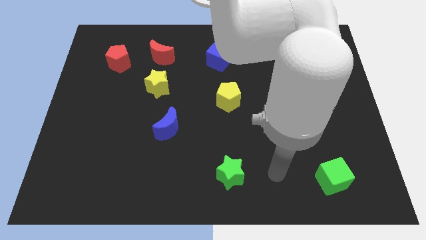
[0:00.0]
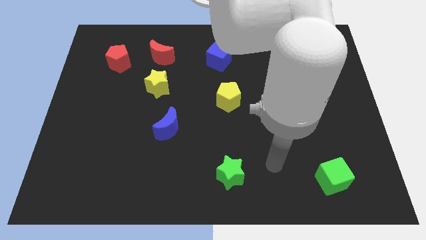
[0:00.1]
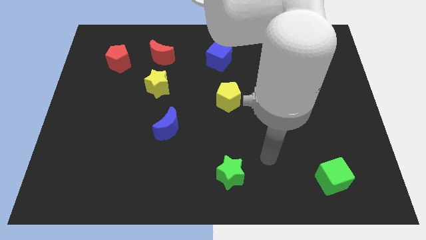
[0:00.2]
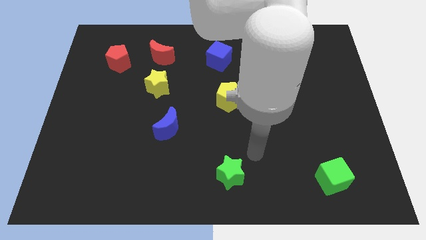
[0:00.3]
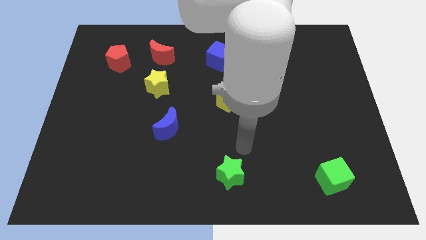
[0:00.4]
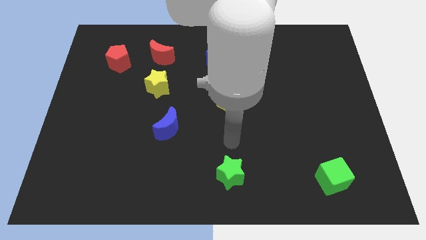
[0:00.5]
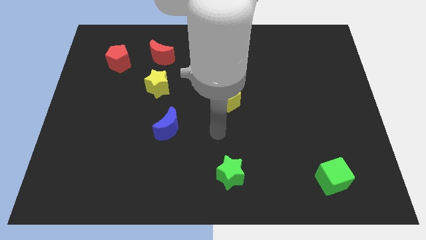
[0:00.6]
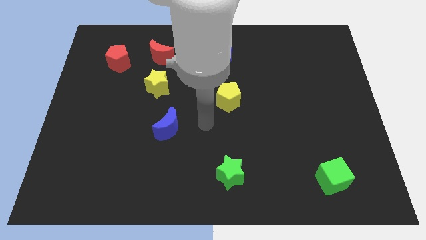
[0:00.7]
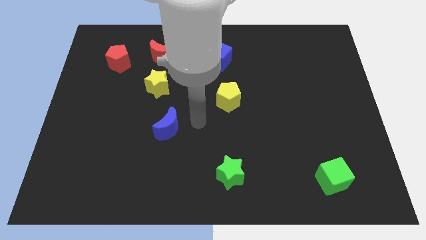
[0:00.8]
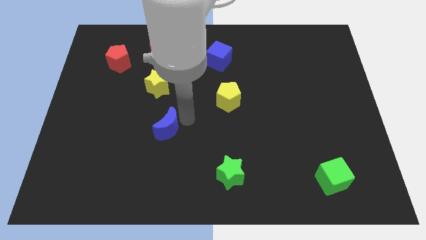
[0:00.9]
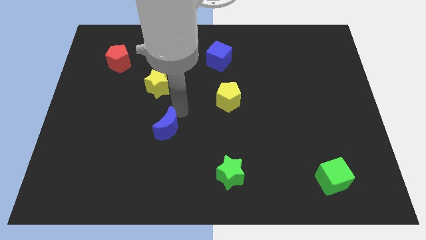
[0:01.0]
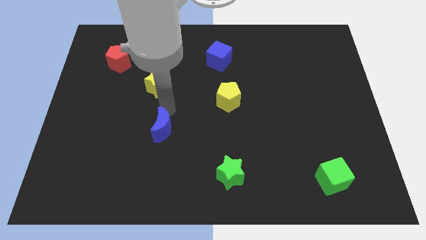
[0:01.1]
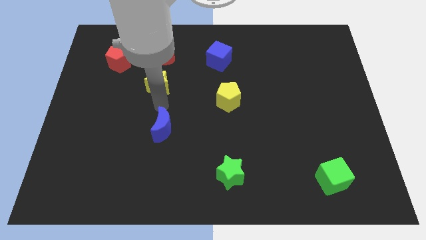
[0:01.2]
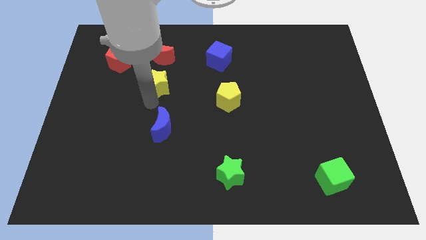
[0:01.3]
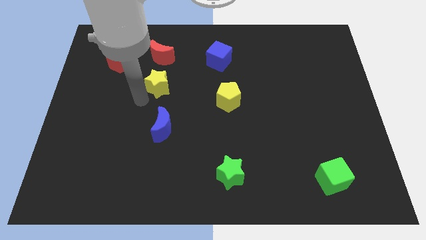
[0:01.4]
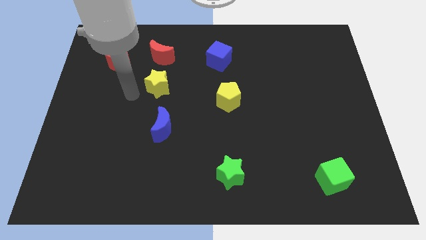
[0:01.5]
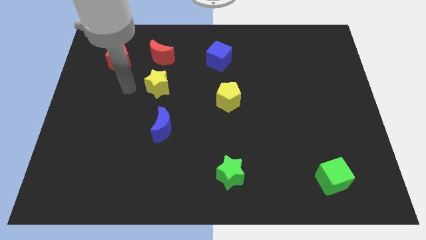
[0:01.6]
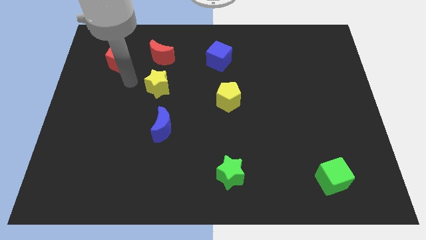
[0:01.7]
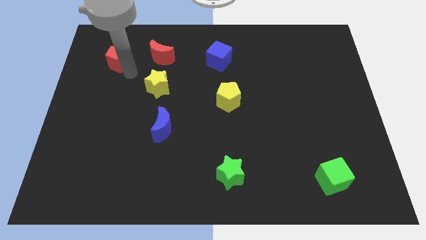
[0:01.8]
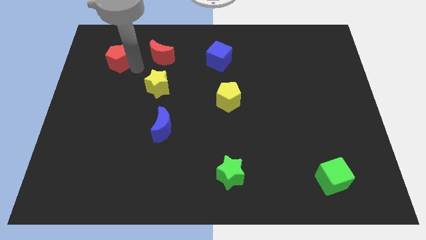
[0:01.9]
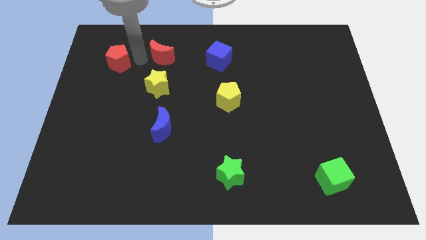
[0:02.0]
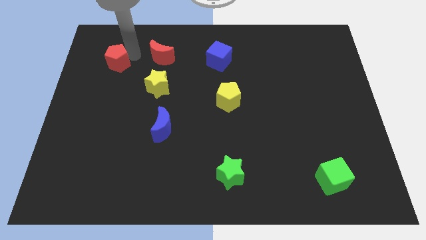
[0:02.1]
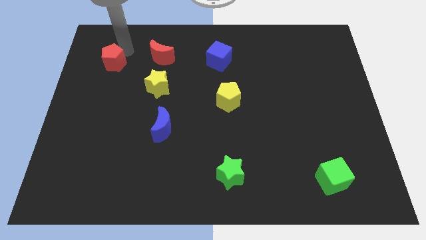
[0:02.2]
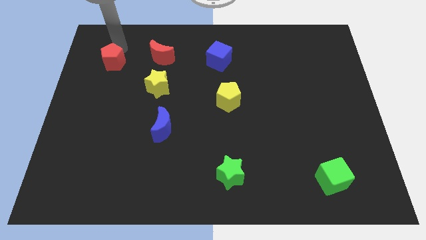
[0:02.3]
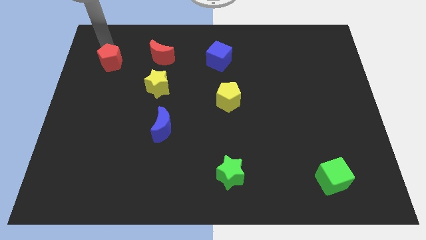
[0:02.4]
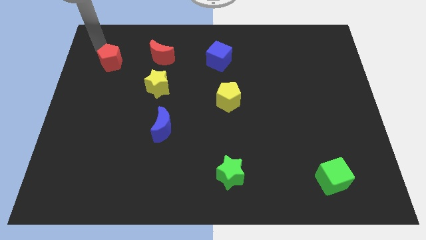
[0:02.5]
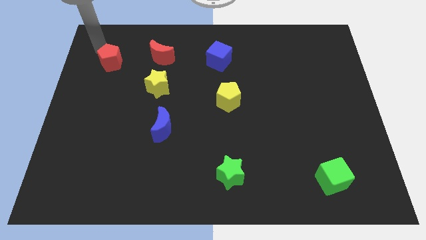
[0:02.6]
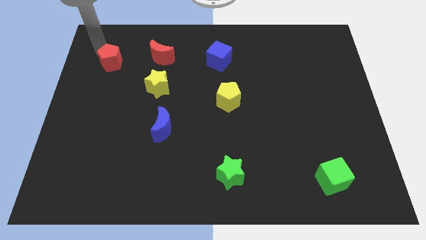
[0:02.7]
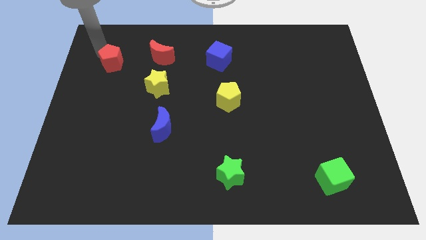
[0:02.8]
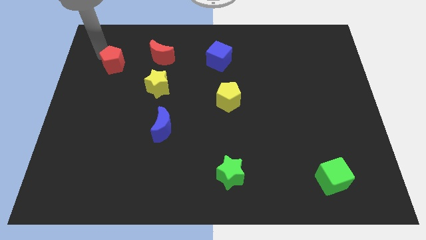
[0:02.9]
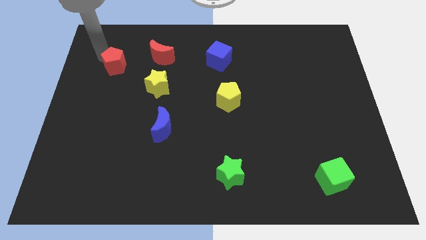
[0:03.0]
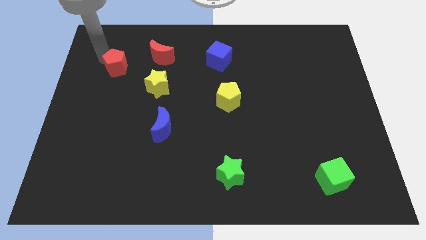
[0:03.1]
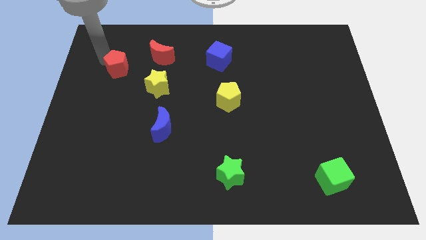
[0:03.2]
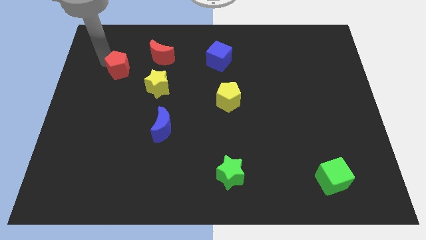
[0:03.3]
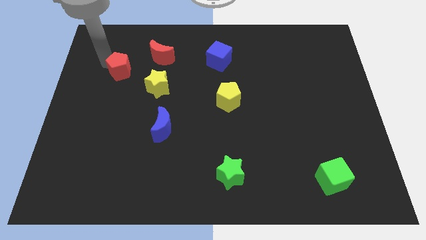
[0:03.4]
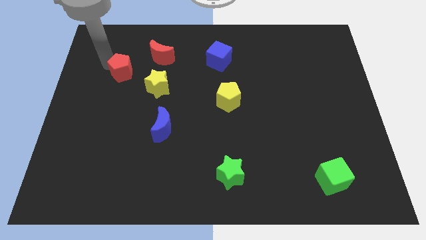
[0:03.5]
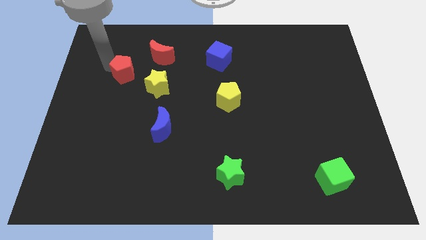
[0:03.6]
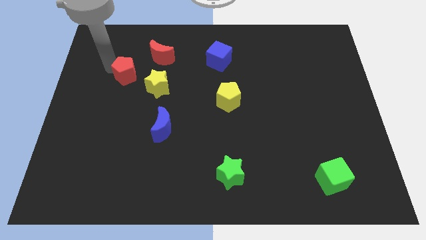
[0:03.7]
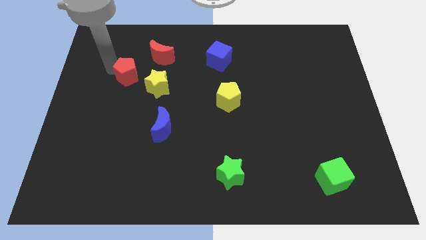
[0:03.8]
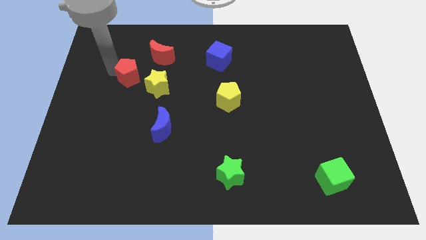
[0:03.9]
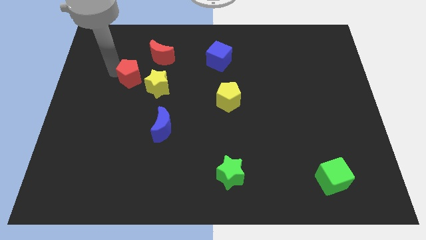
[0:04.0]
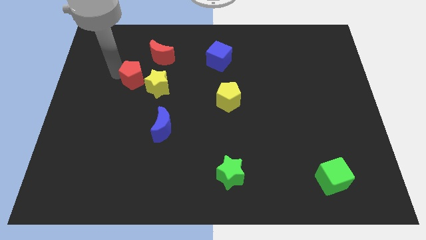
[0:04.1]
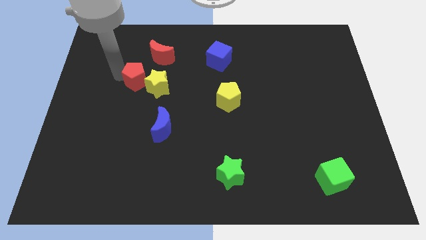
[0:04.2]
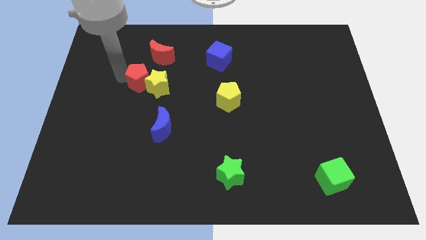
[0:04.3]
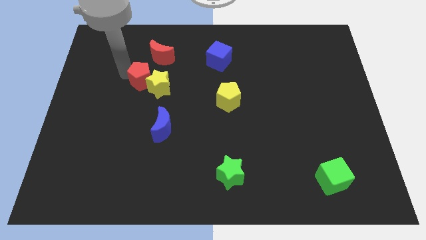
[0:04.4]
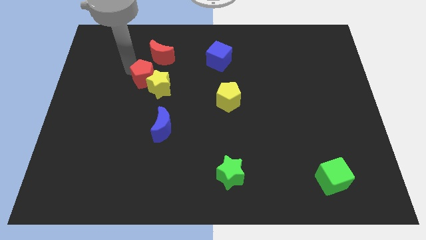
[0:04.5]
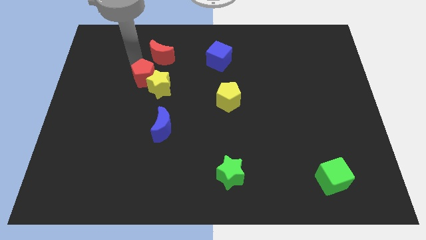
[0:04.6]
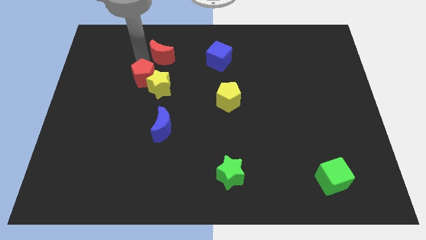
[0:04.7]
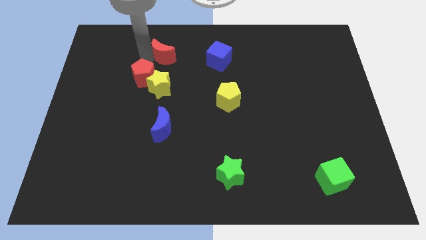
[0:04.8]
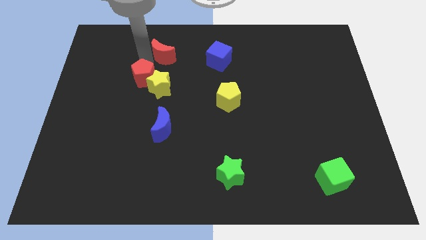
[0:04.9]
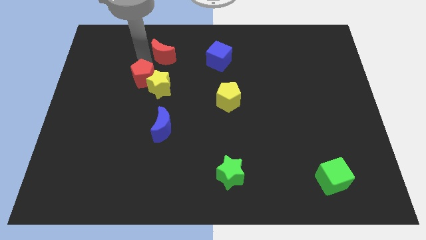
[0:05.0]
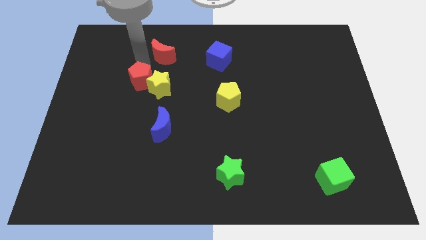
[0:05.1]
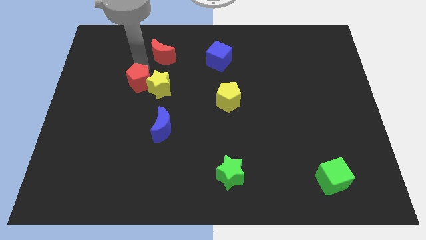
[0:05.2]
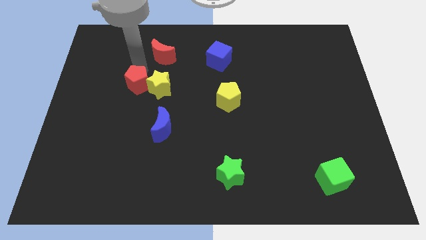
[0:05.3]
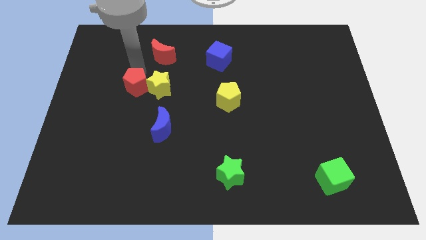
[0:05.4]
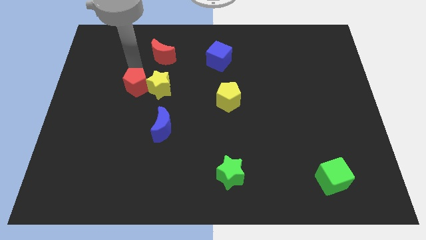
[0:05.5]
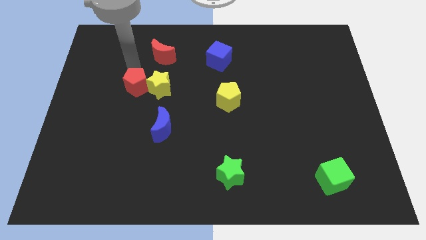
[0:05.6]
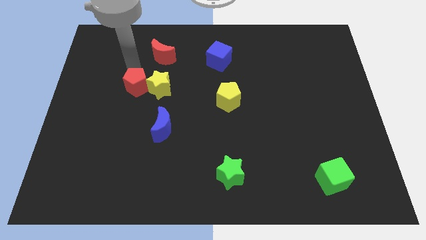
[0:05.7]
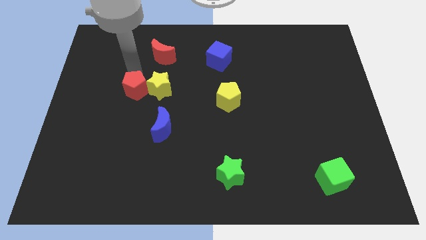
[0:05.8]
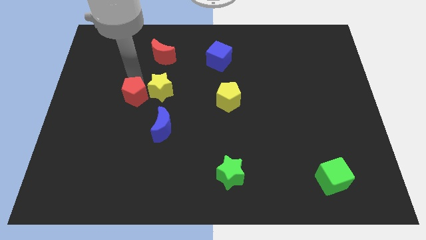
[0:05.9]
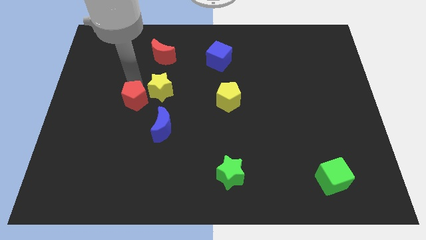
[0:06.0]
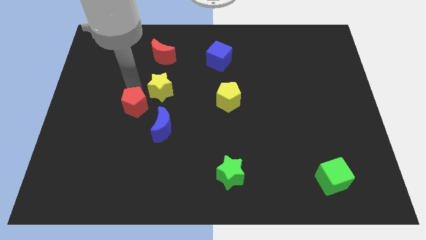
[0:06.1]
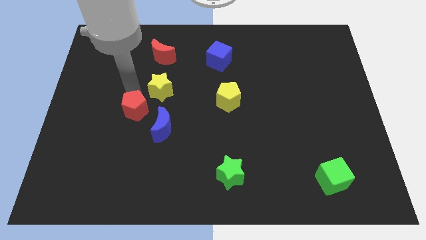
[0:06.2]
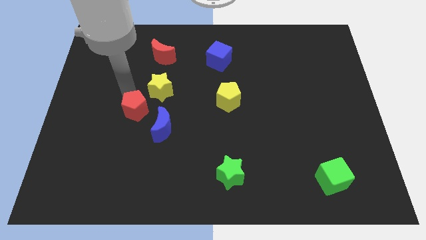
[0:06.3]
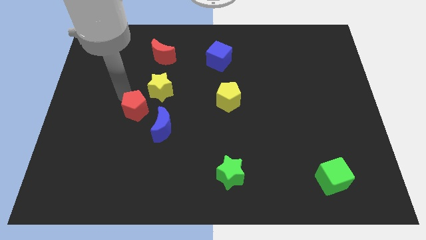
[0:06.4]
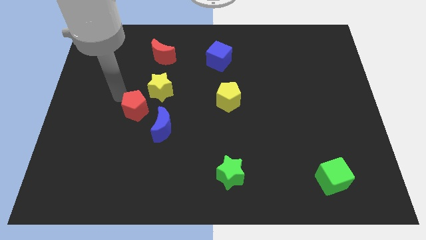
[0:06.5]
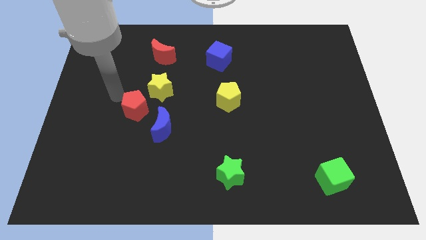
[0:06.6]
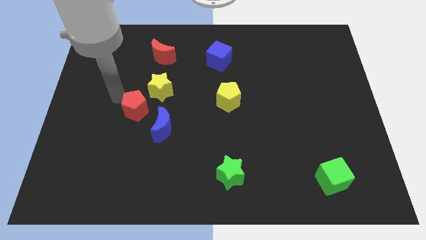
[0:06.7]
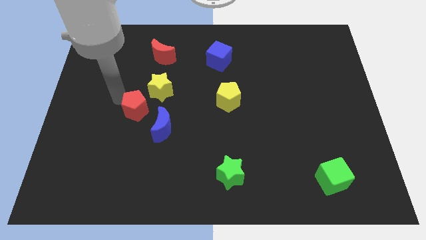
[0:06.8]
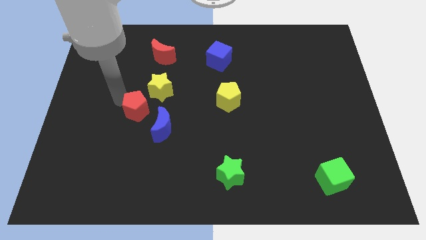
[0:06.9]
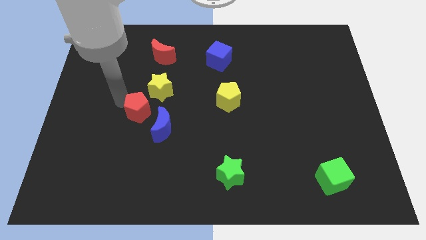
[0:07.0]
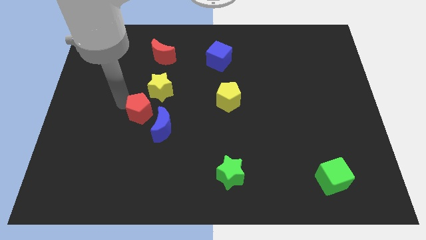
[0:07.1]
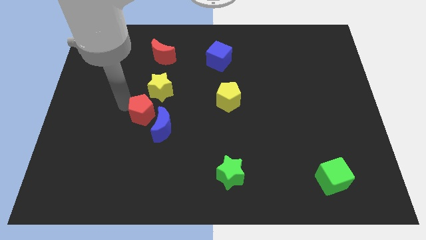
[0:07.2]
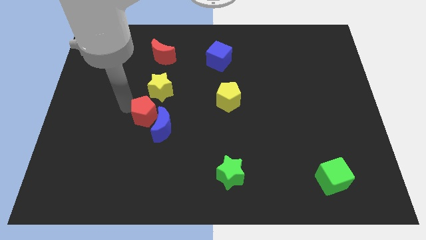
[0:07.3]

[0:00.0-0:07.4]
move the red pentagon close to the blue moon

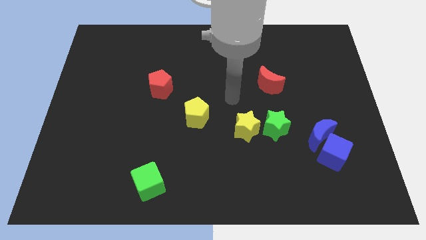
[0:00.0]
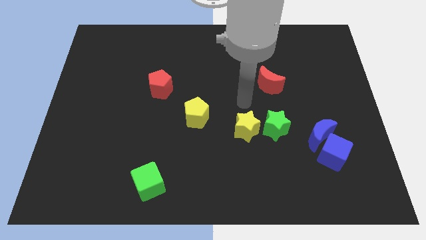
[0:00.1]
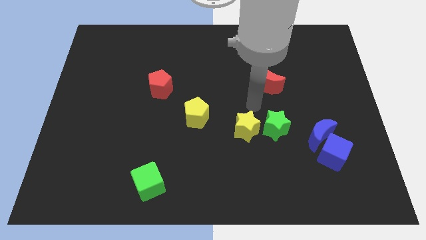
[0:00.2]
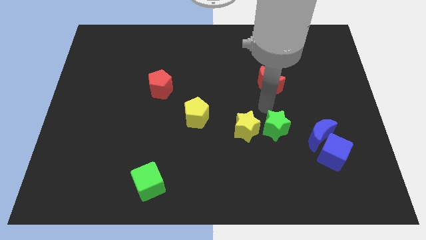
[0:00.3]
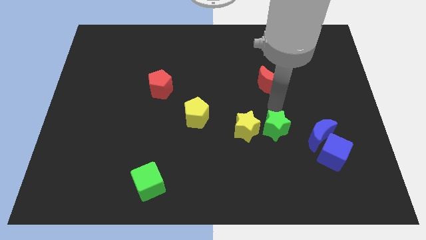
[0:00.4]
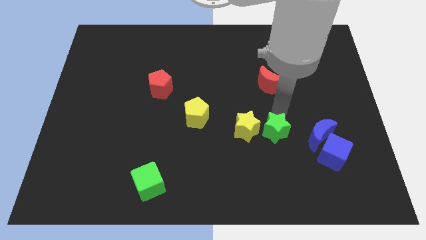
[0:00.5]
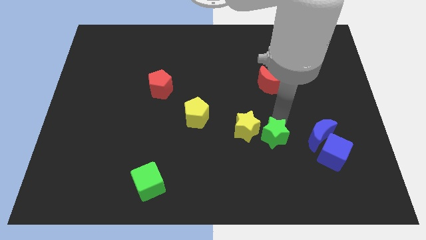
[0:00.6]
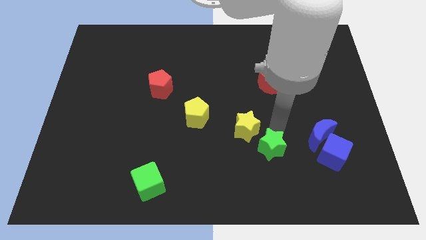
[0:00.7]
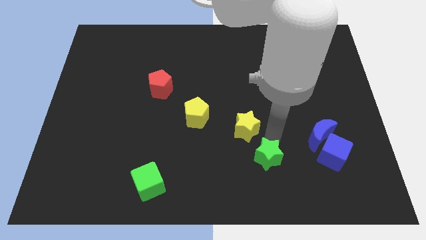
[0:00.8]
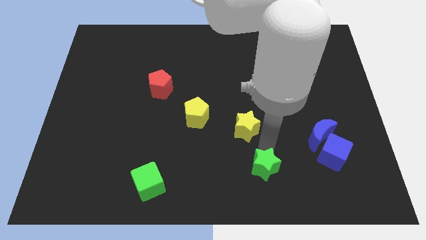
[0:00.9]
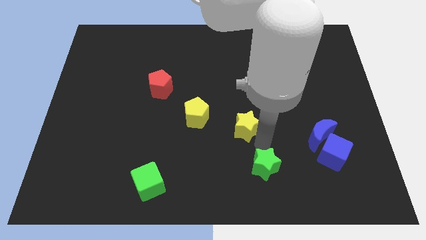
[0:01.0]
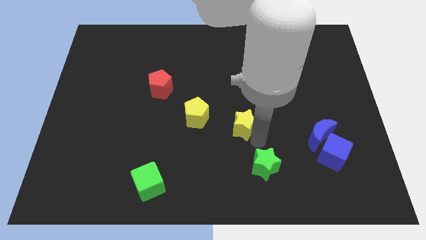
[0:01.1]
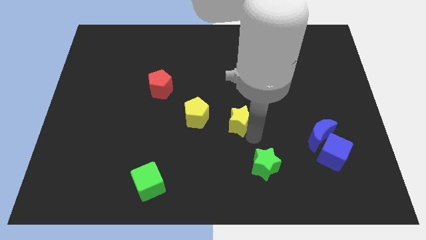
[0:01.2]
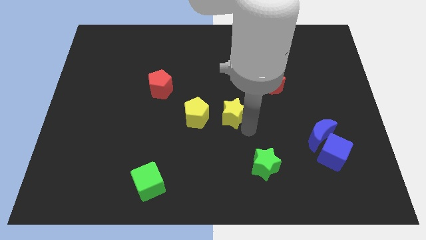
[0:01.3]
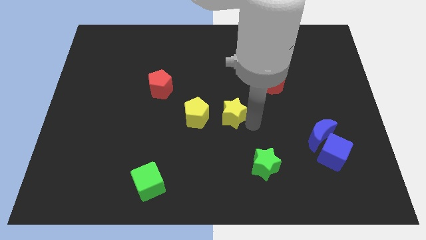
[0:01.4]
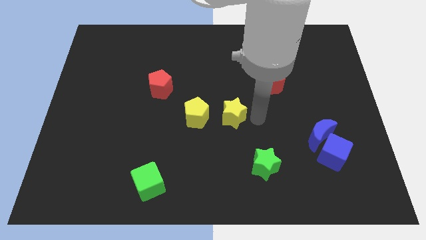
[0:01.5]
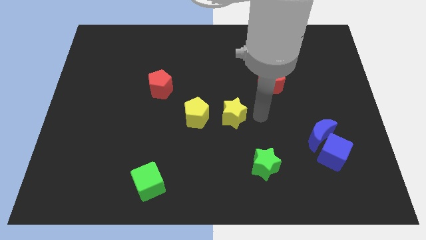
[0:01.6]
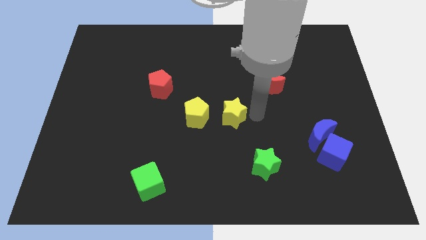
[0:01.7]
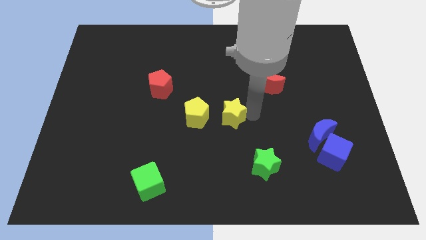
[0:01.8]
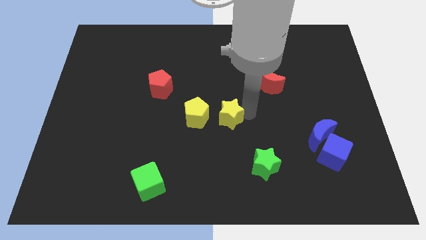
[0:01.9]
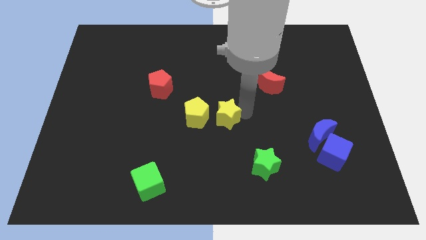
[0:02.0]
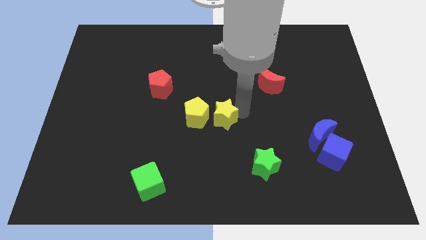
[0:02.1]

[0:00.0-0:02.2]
put the yellow star to the yellow pentagon
